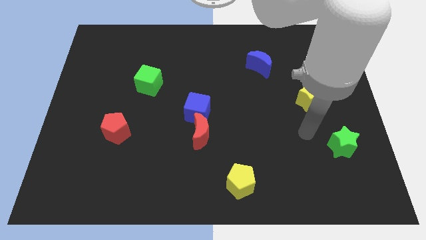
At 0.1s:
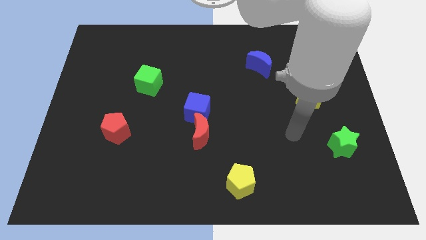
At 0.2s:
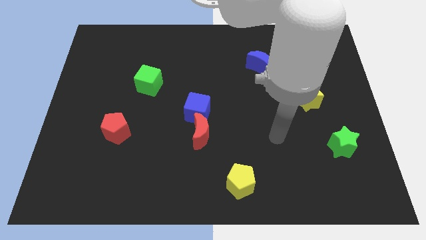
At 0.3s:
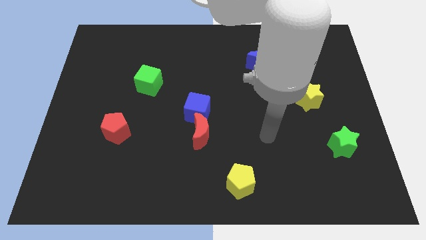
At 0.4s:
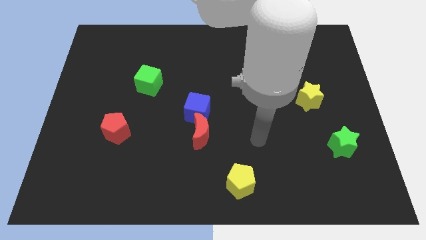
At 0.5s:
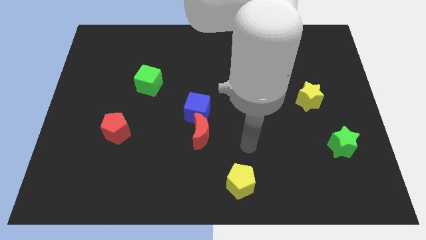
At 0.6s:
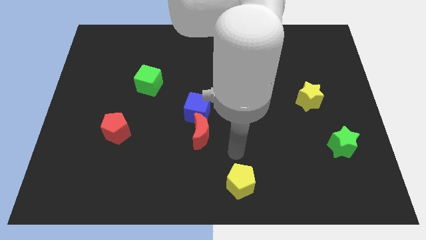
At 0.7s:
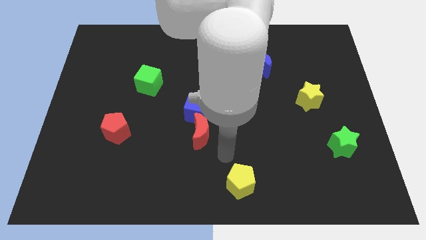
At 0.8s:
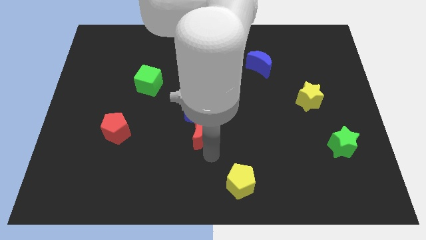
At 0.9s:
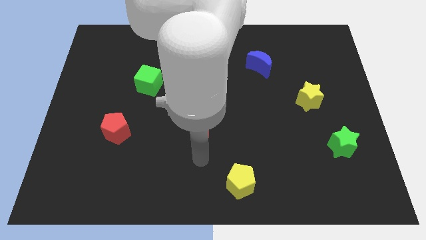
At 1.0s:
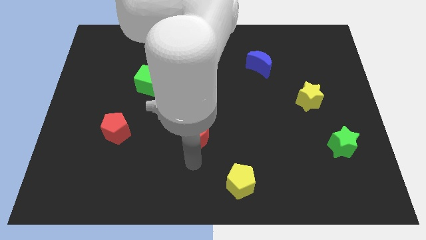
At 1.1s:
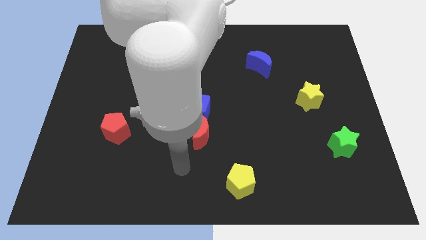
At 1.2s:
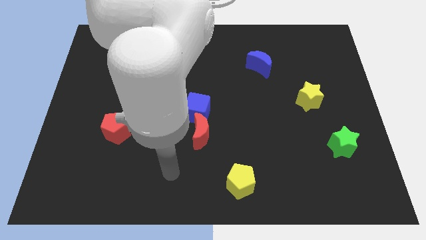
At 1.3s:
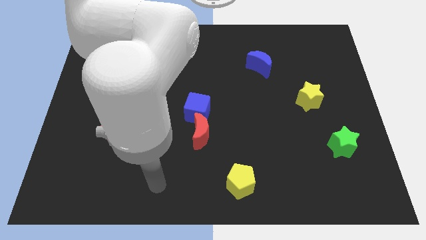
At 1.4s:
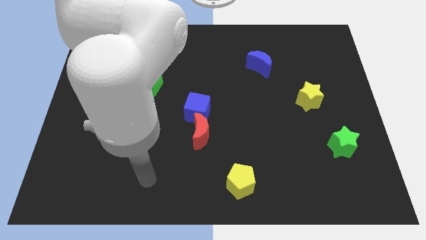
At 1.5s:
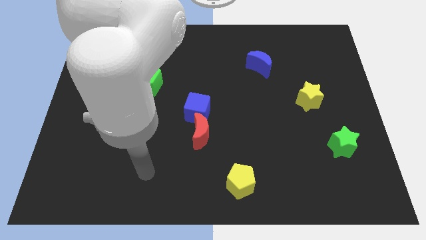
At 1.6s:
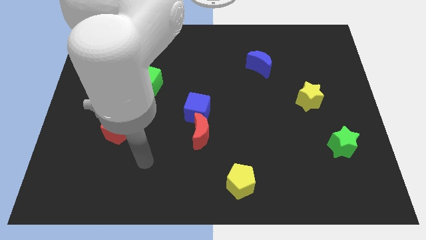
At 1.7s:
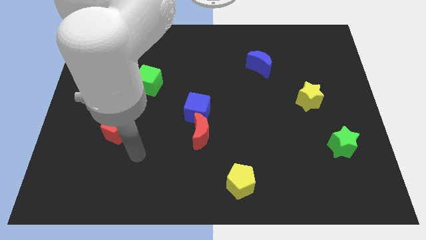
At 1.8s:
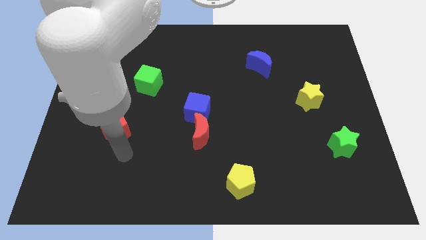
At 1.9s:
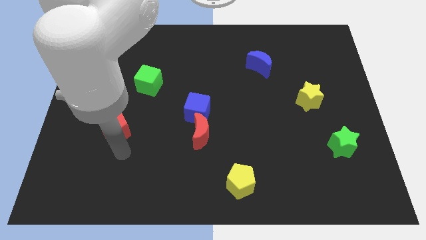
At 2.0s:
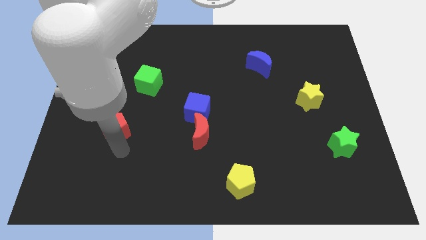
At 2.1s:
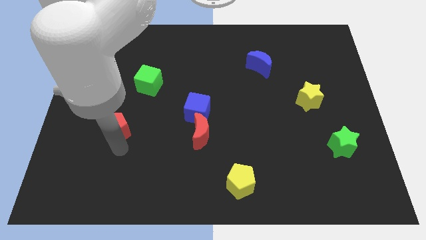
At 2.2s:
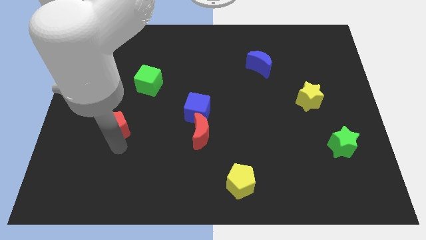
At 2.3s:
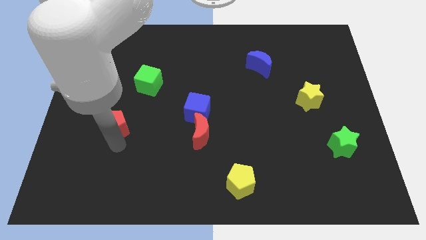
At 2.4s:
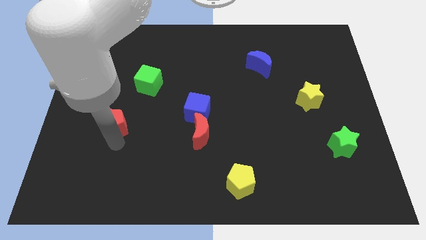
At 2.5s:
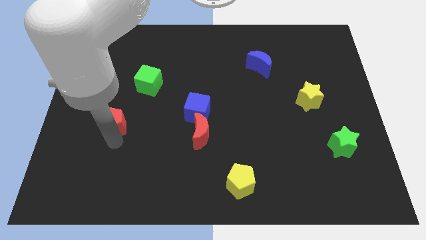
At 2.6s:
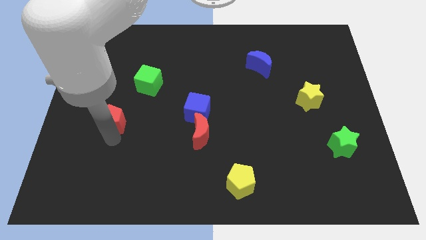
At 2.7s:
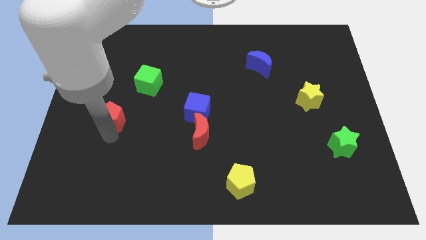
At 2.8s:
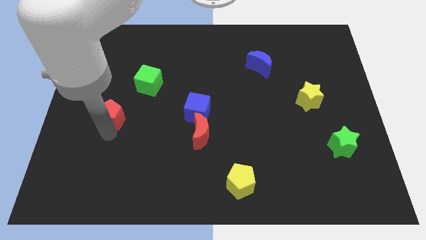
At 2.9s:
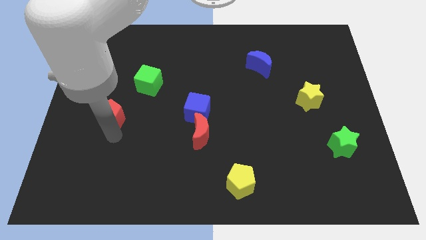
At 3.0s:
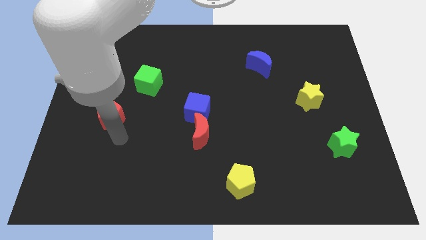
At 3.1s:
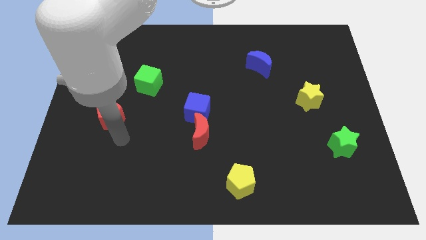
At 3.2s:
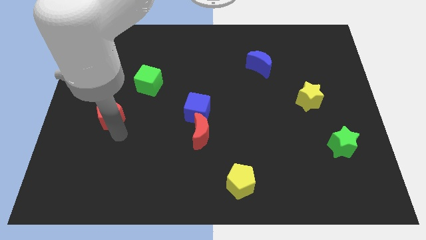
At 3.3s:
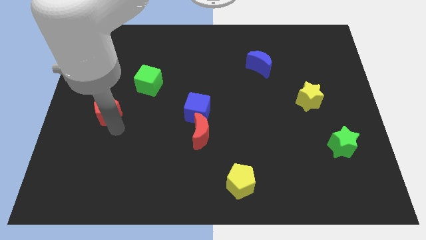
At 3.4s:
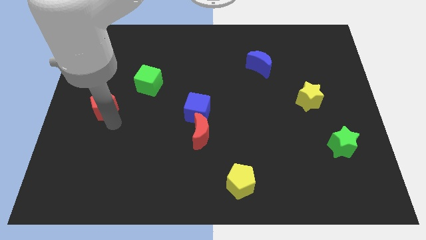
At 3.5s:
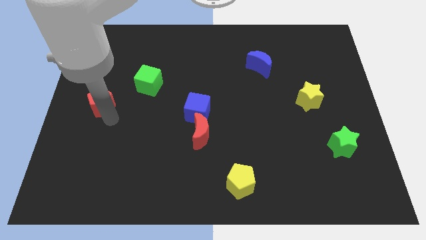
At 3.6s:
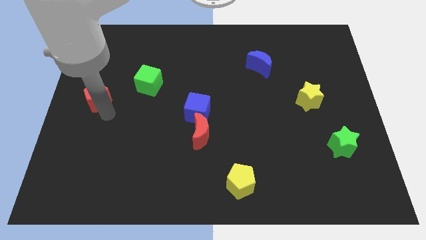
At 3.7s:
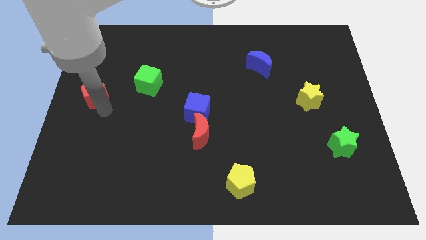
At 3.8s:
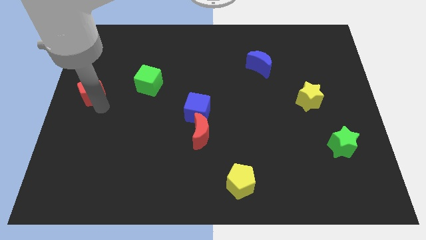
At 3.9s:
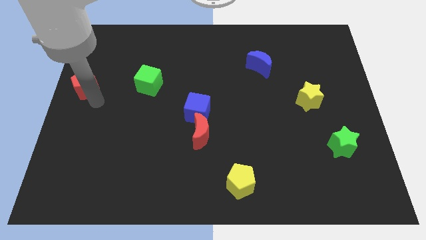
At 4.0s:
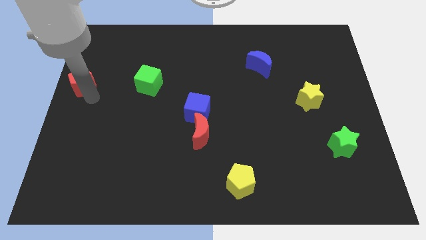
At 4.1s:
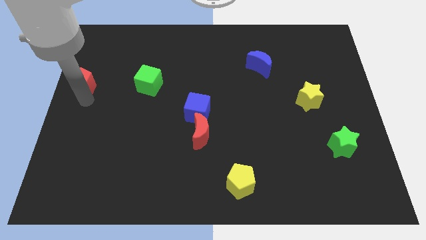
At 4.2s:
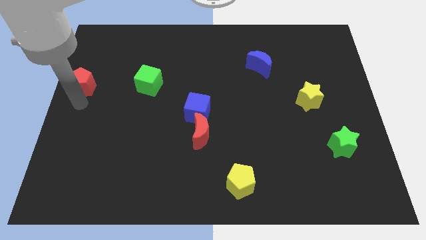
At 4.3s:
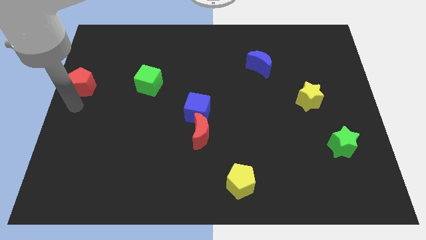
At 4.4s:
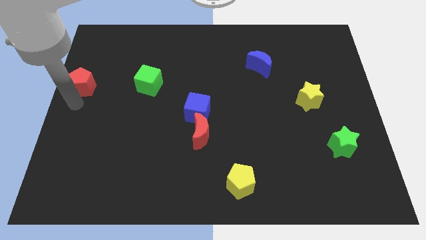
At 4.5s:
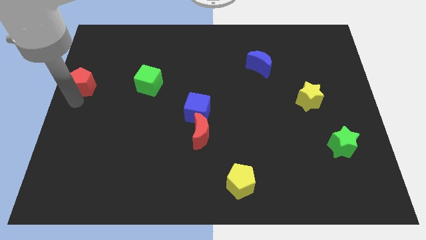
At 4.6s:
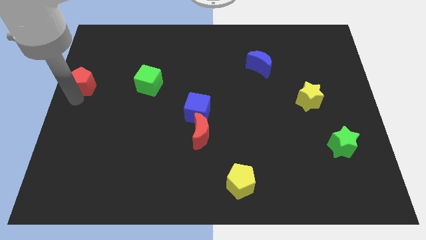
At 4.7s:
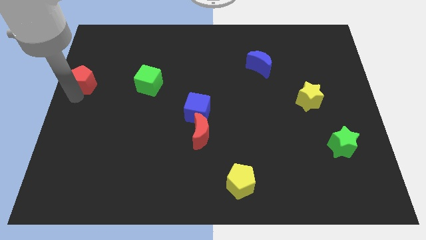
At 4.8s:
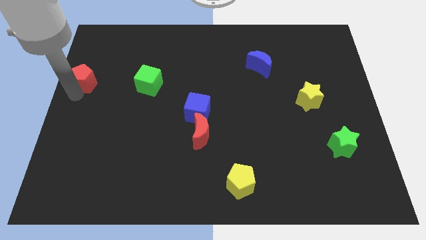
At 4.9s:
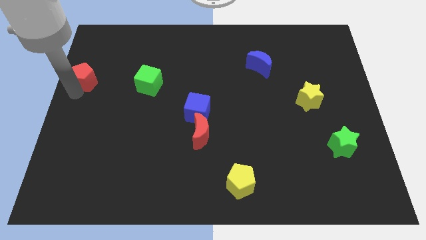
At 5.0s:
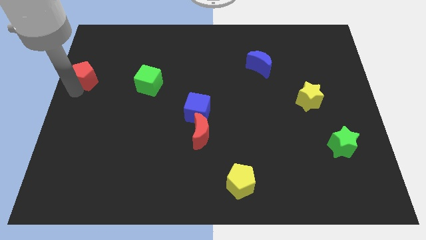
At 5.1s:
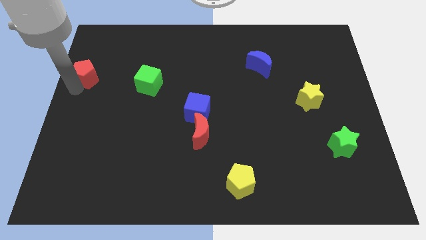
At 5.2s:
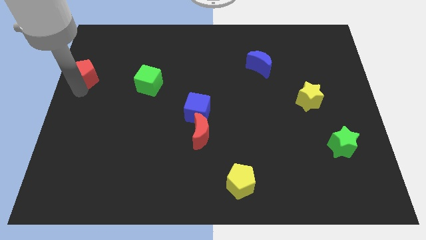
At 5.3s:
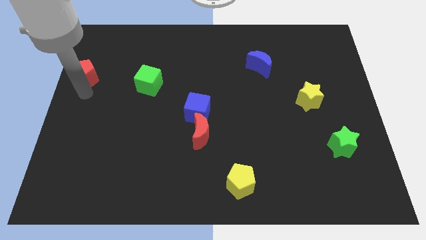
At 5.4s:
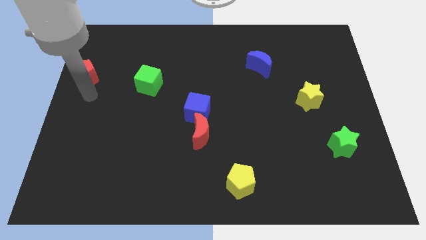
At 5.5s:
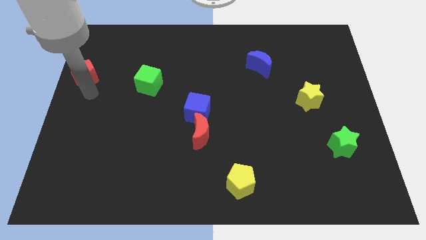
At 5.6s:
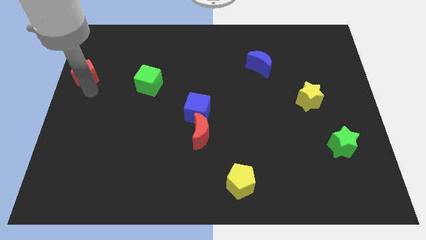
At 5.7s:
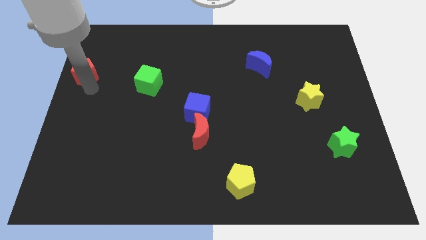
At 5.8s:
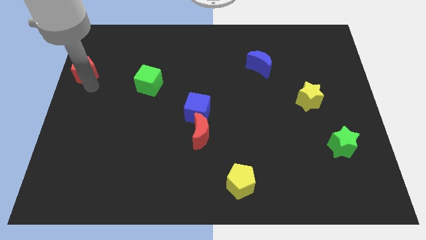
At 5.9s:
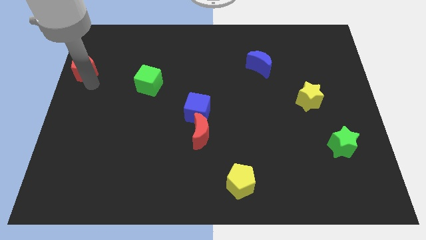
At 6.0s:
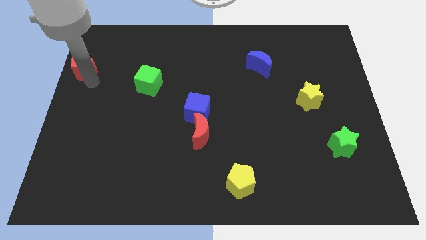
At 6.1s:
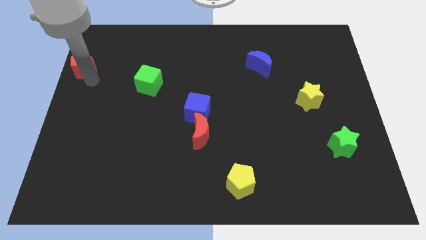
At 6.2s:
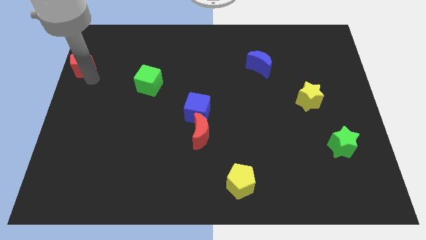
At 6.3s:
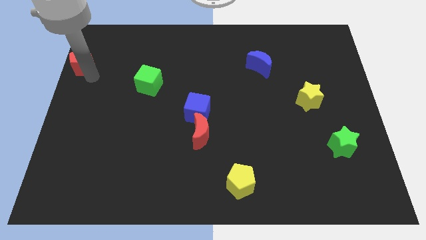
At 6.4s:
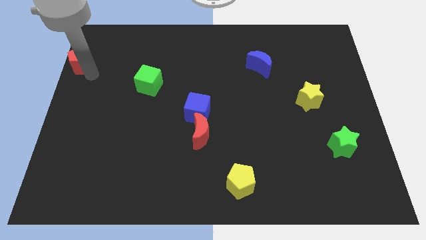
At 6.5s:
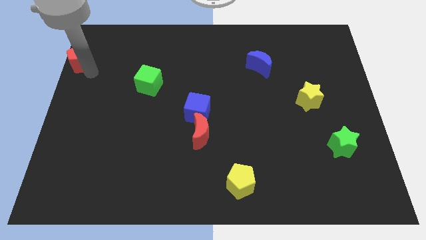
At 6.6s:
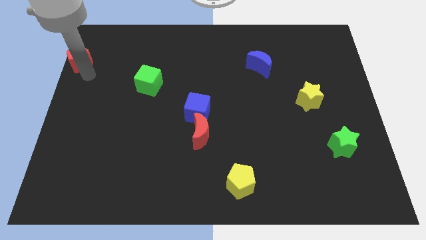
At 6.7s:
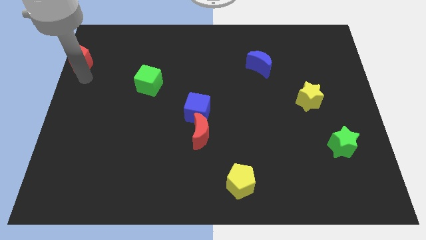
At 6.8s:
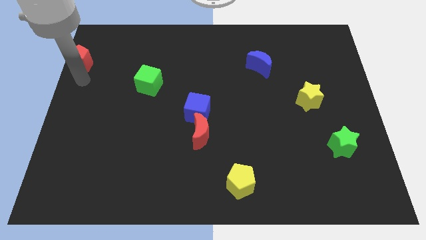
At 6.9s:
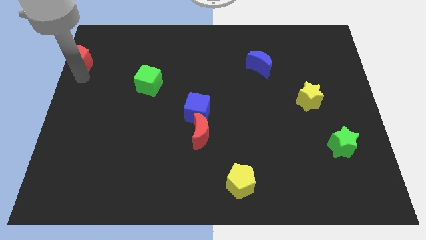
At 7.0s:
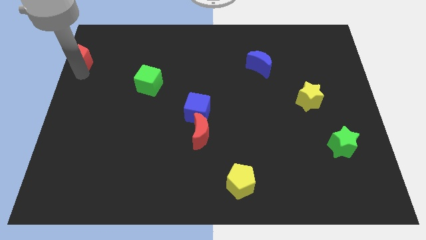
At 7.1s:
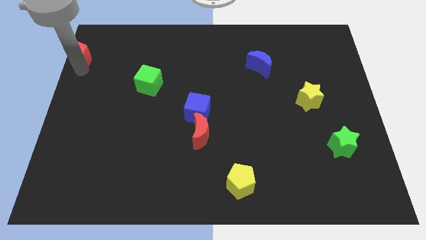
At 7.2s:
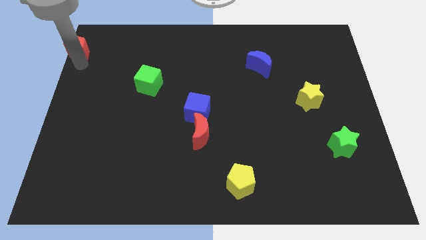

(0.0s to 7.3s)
put the red pentagon to the top left of the board
